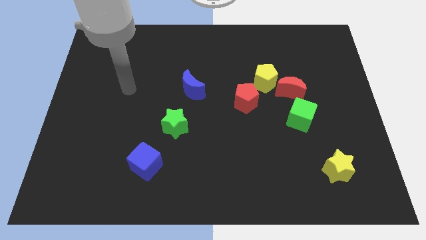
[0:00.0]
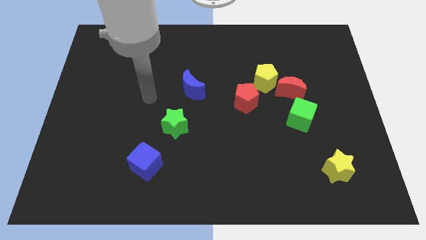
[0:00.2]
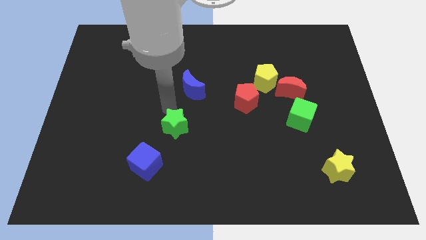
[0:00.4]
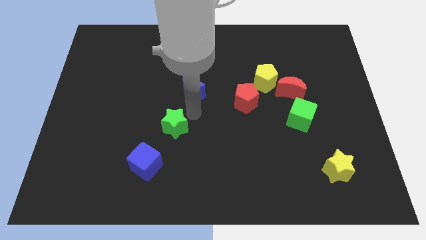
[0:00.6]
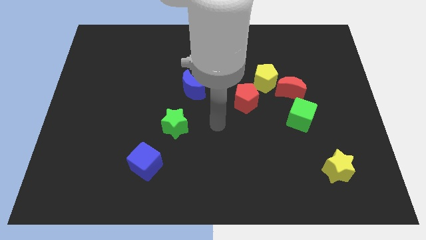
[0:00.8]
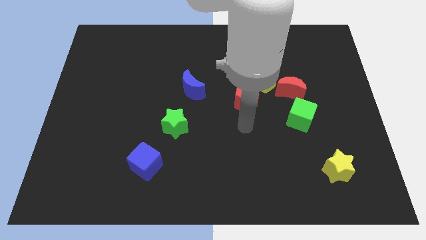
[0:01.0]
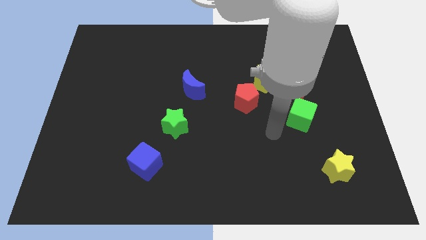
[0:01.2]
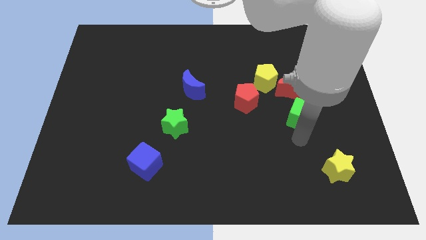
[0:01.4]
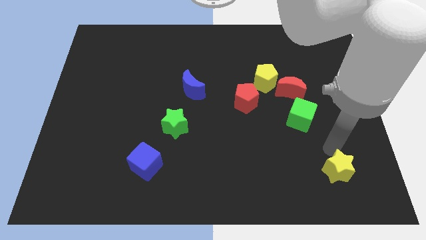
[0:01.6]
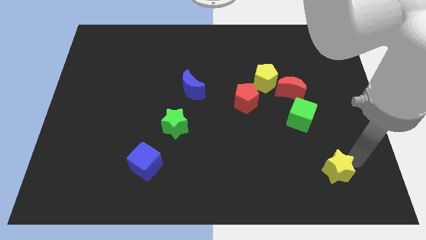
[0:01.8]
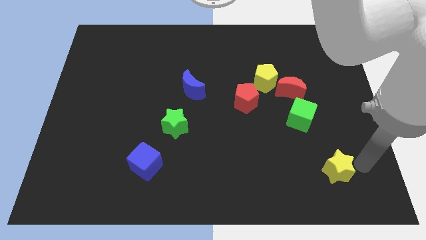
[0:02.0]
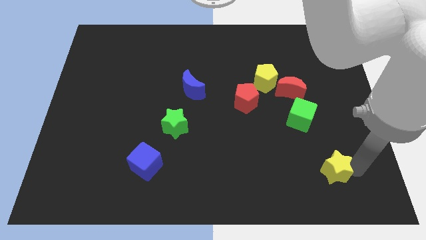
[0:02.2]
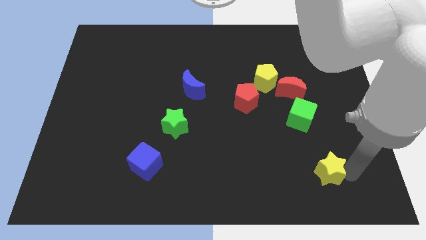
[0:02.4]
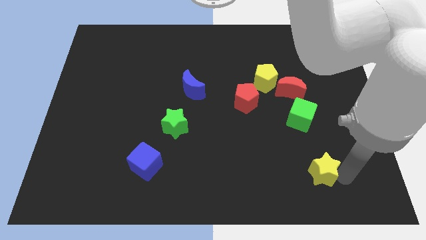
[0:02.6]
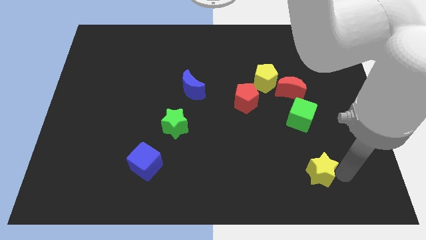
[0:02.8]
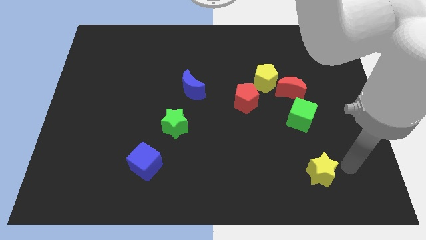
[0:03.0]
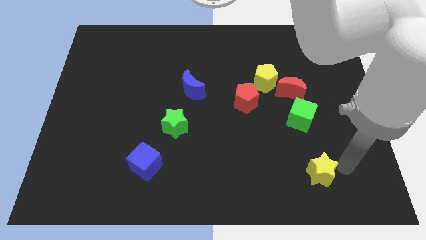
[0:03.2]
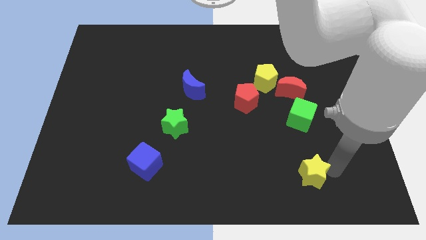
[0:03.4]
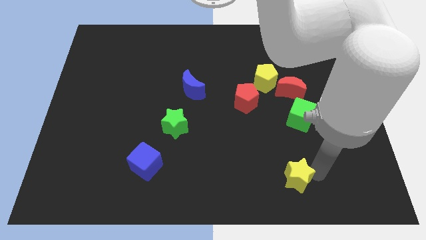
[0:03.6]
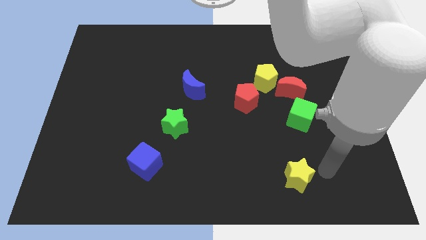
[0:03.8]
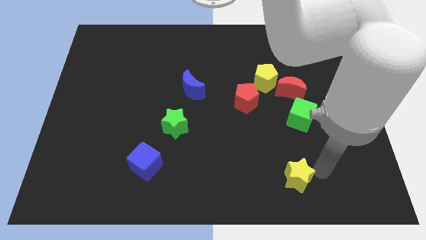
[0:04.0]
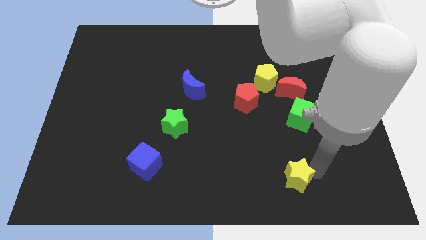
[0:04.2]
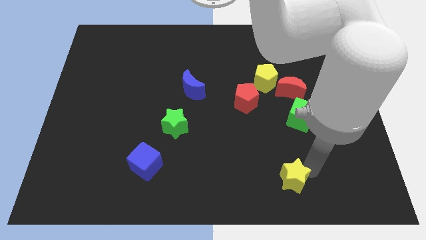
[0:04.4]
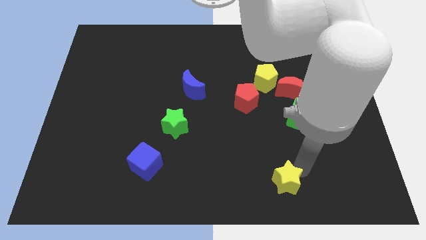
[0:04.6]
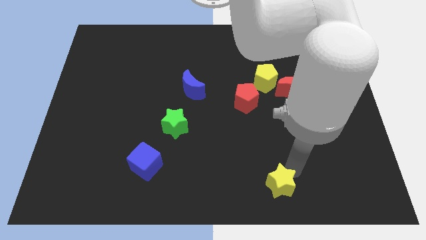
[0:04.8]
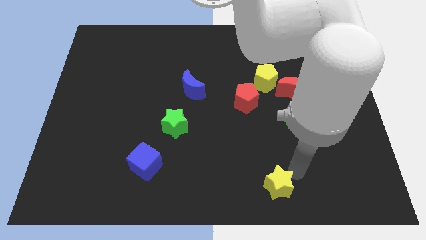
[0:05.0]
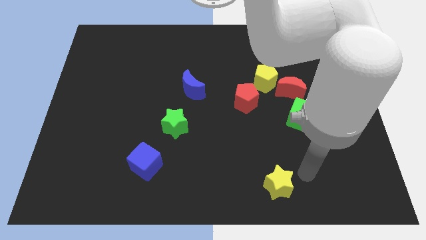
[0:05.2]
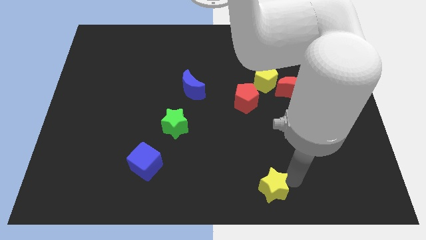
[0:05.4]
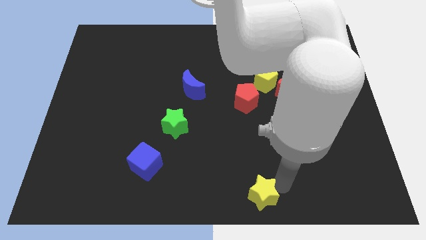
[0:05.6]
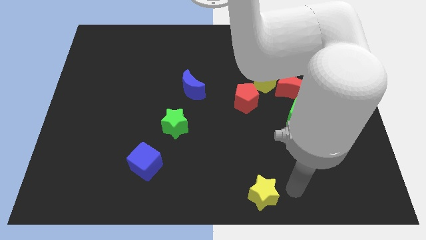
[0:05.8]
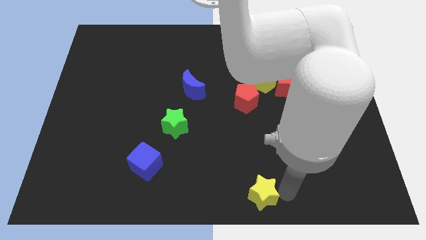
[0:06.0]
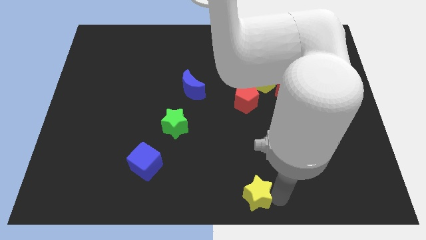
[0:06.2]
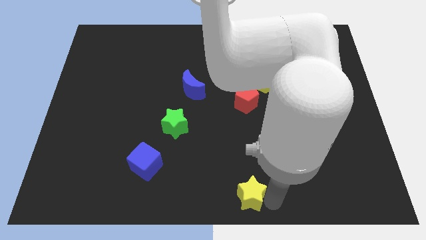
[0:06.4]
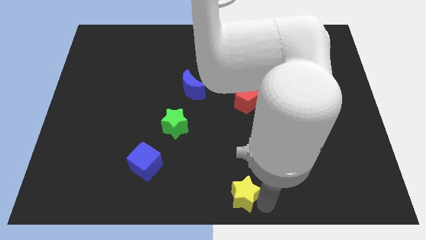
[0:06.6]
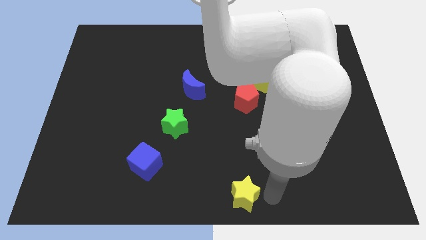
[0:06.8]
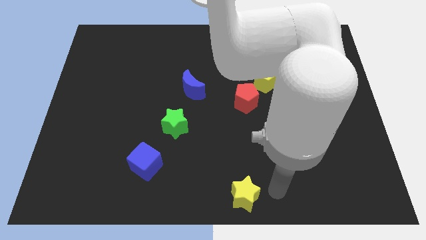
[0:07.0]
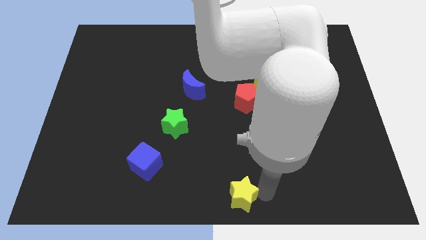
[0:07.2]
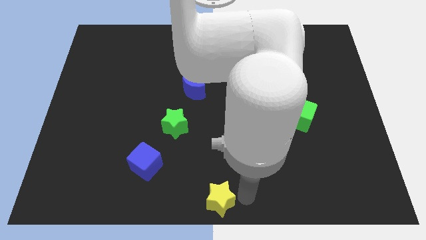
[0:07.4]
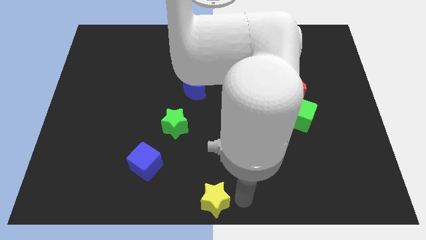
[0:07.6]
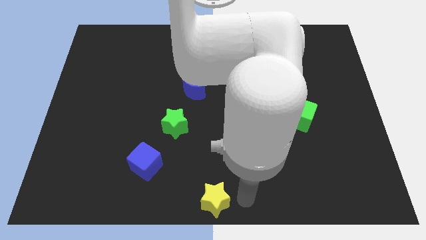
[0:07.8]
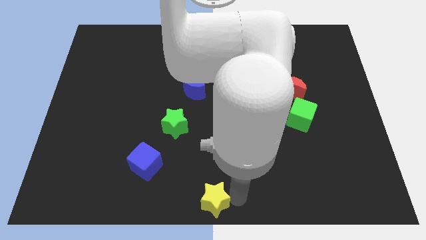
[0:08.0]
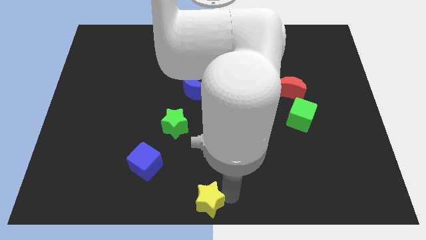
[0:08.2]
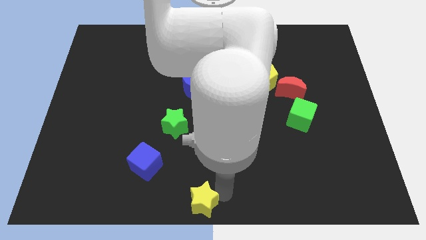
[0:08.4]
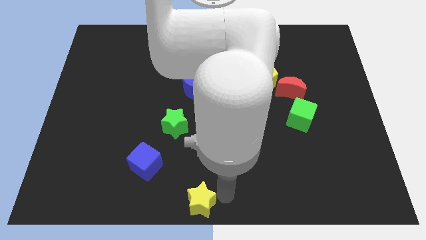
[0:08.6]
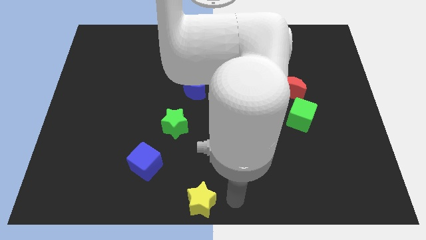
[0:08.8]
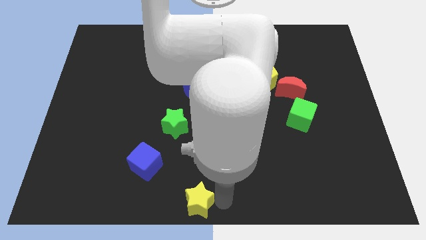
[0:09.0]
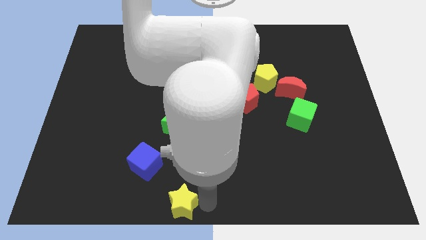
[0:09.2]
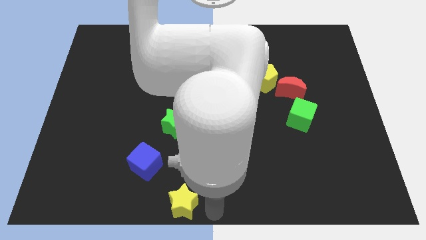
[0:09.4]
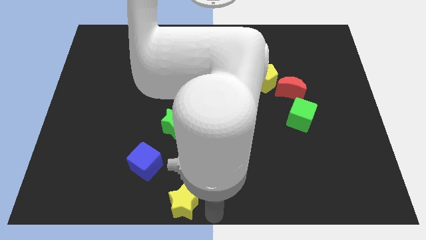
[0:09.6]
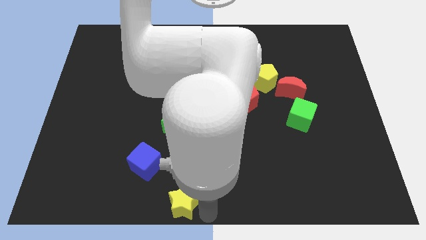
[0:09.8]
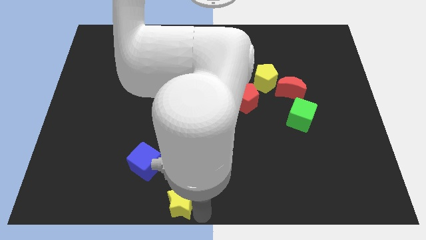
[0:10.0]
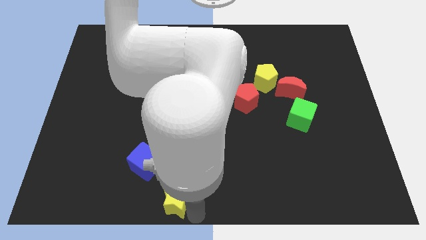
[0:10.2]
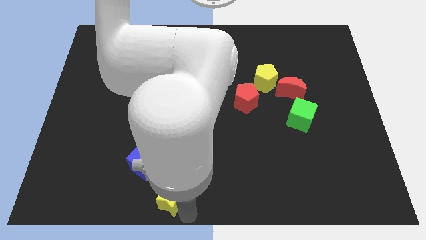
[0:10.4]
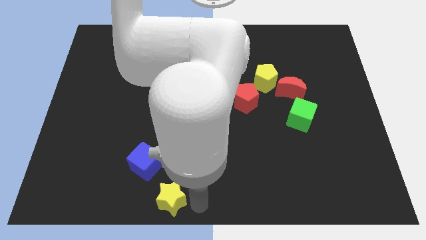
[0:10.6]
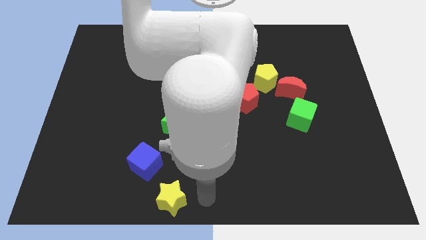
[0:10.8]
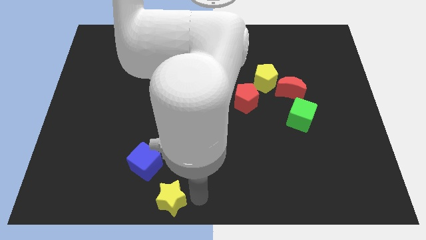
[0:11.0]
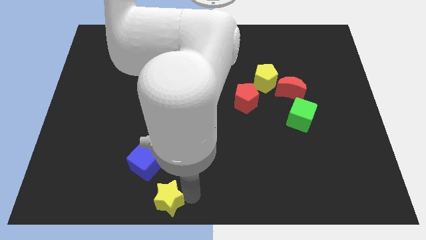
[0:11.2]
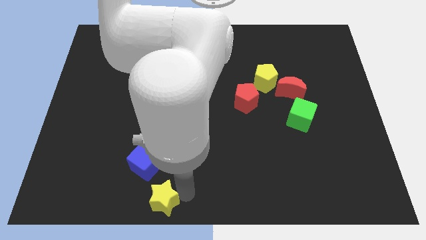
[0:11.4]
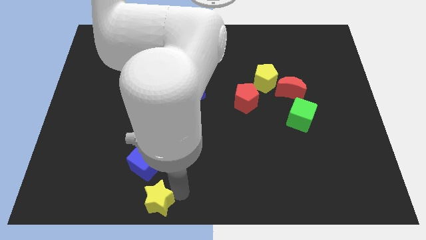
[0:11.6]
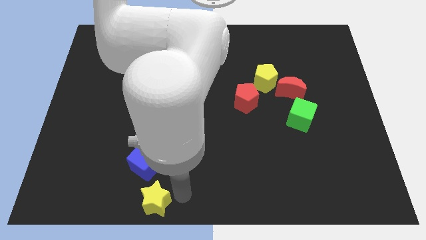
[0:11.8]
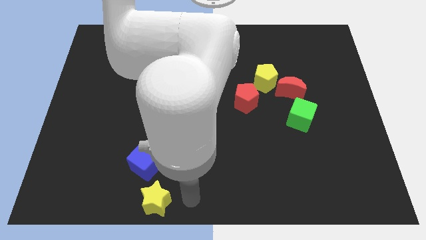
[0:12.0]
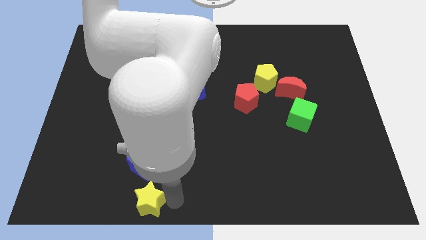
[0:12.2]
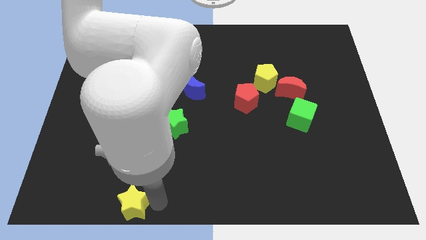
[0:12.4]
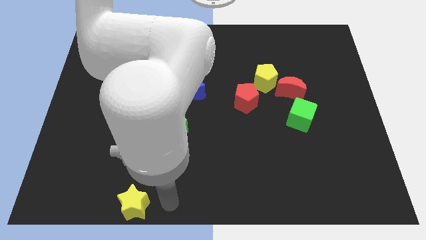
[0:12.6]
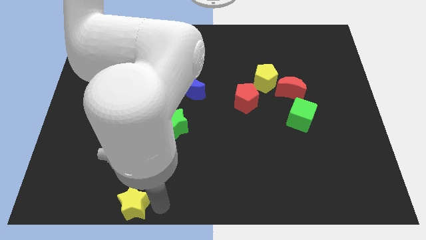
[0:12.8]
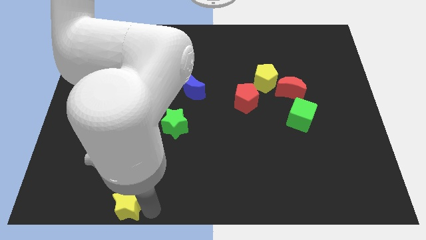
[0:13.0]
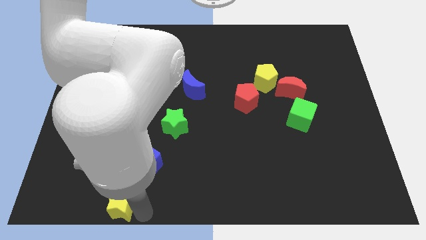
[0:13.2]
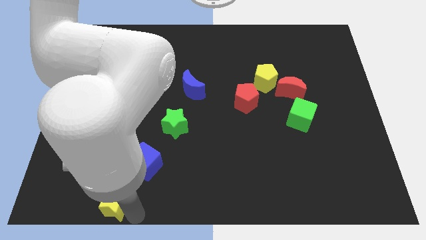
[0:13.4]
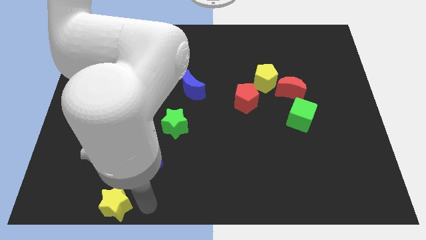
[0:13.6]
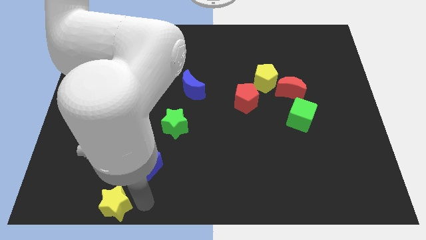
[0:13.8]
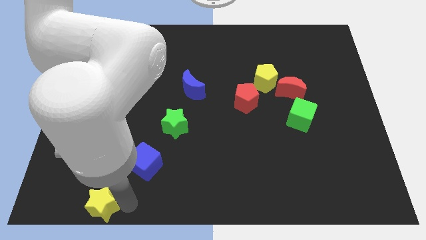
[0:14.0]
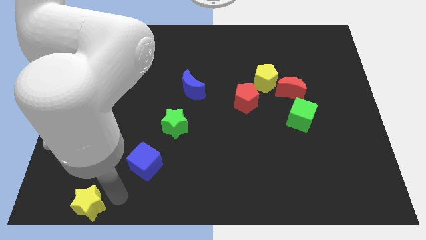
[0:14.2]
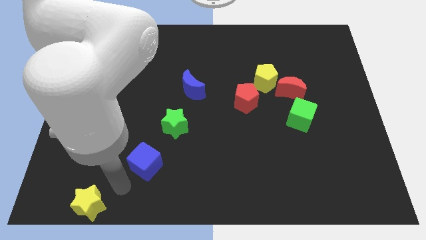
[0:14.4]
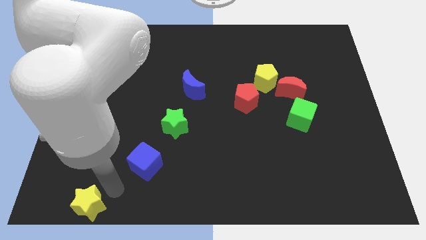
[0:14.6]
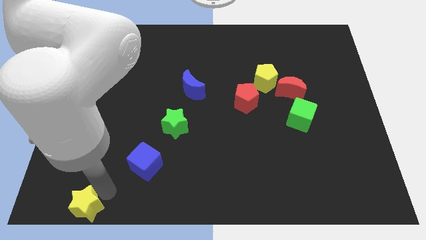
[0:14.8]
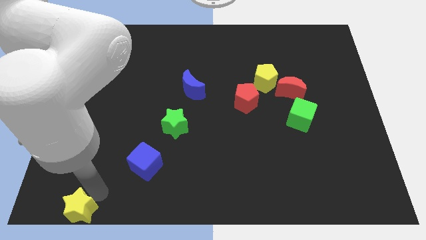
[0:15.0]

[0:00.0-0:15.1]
slide the yellow star to the bottom left corner
